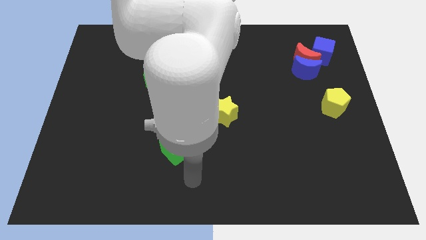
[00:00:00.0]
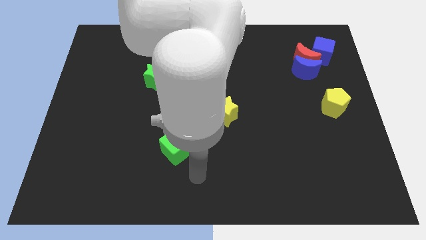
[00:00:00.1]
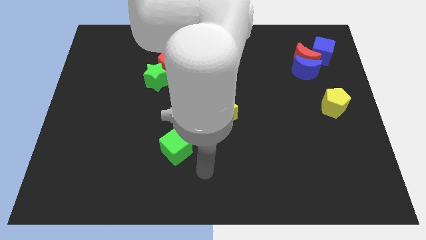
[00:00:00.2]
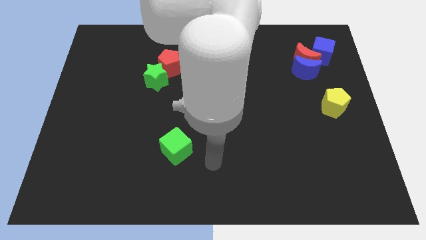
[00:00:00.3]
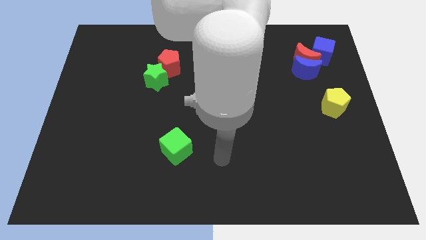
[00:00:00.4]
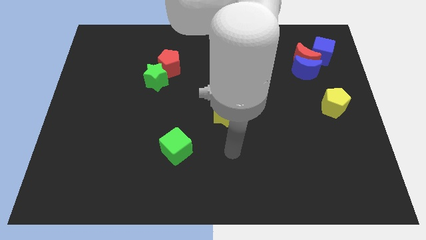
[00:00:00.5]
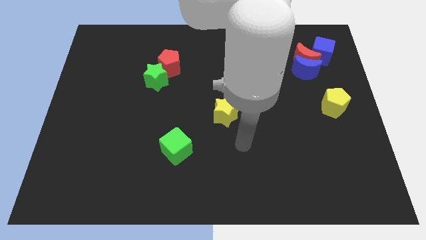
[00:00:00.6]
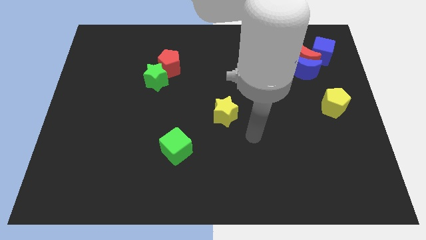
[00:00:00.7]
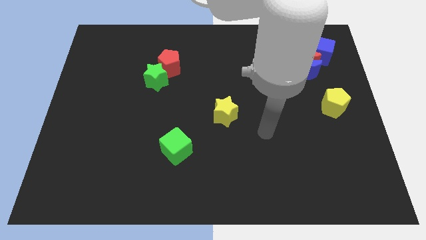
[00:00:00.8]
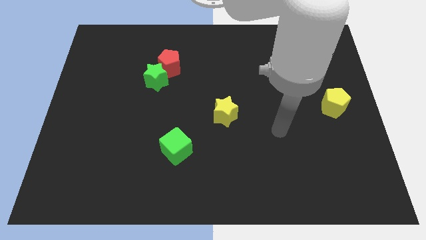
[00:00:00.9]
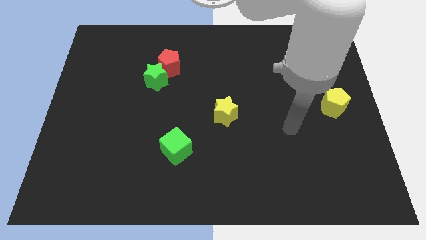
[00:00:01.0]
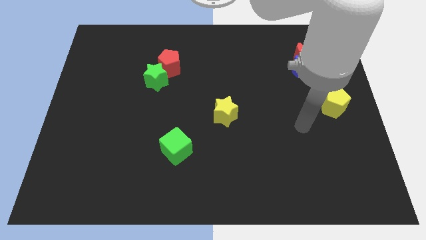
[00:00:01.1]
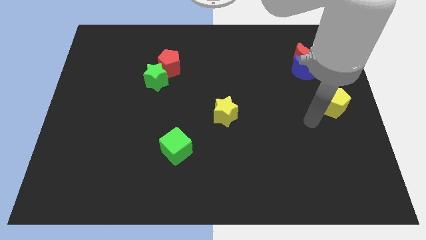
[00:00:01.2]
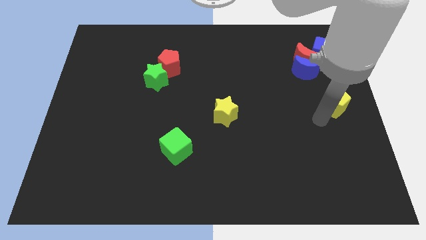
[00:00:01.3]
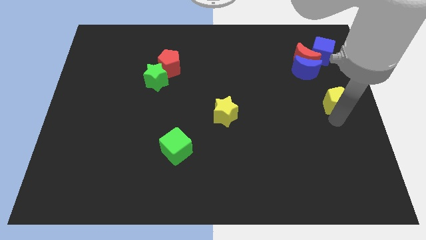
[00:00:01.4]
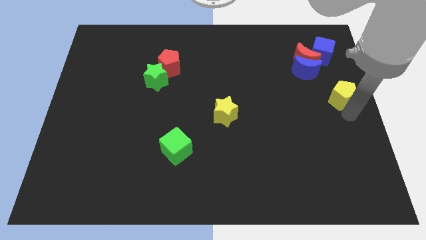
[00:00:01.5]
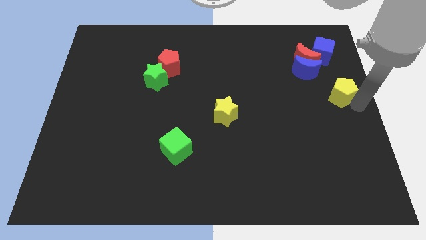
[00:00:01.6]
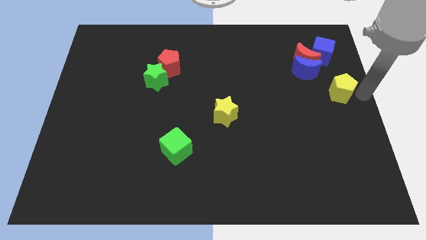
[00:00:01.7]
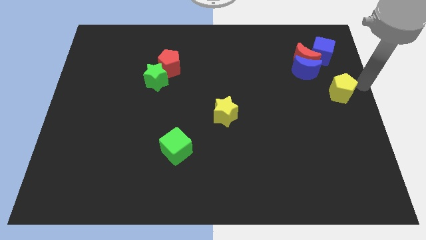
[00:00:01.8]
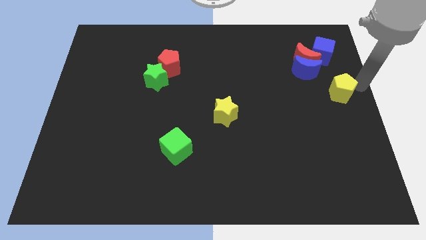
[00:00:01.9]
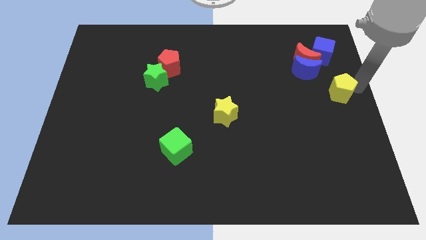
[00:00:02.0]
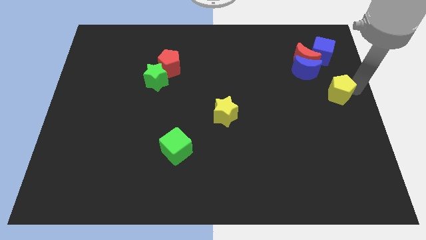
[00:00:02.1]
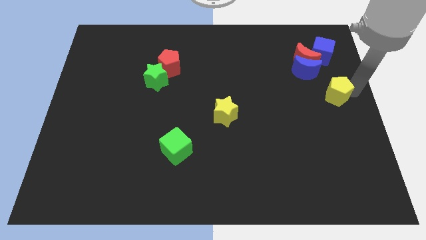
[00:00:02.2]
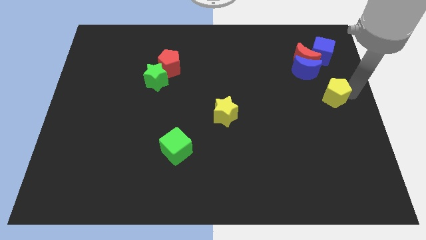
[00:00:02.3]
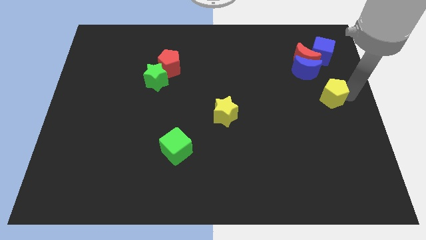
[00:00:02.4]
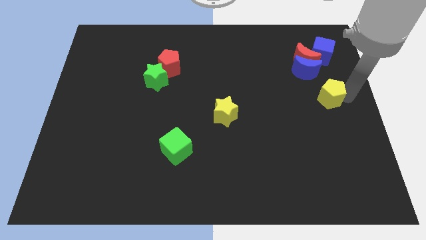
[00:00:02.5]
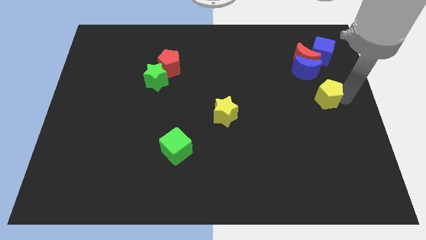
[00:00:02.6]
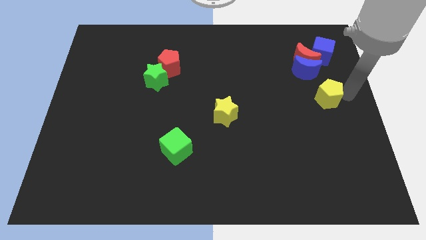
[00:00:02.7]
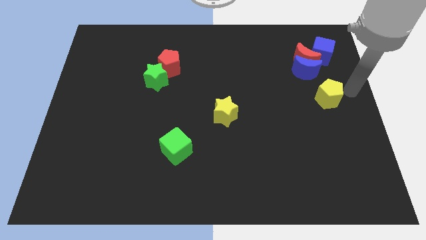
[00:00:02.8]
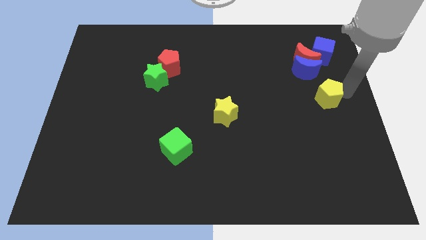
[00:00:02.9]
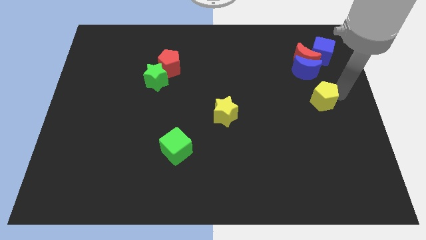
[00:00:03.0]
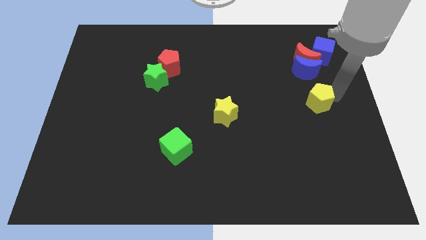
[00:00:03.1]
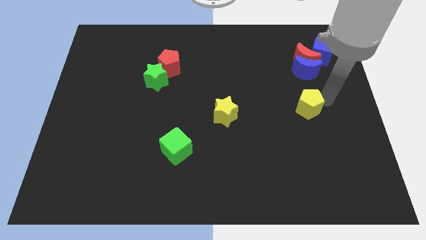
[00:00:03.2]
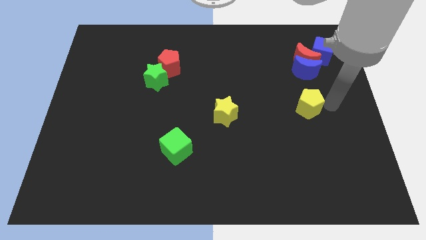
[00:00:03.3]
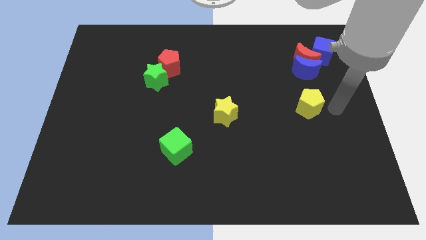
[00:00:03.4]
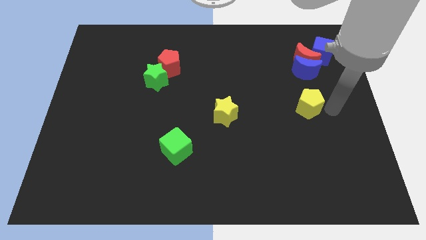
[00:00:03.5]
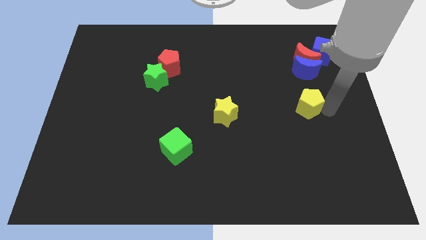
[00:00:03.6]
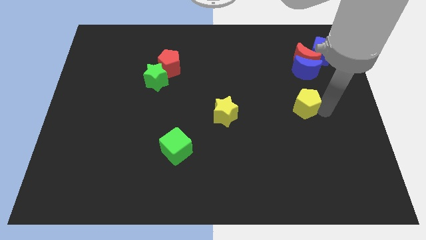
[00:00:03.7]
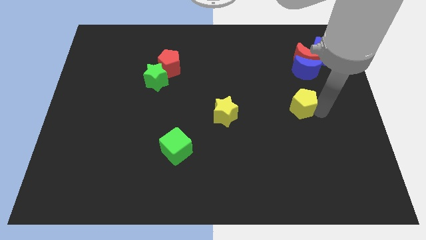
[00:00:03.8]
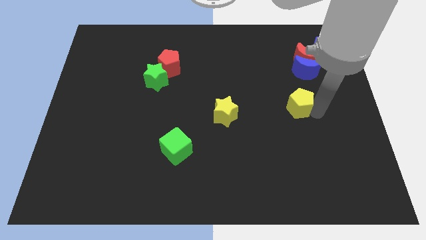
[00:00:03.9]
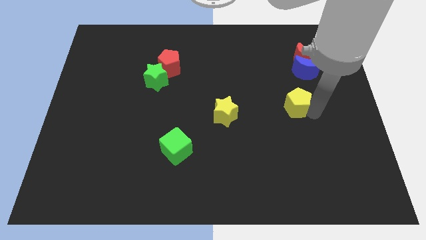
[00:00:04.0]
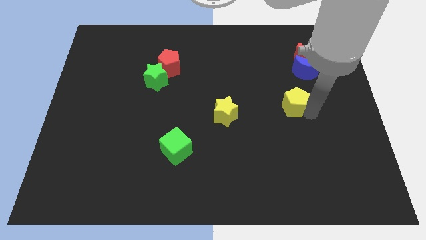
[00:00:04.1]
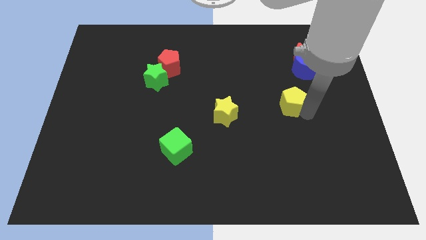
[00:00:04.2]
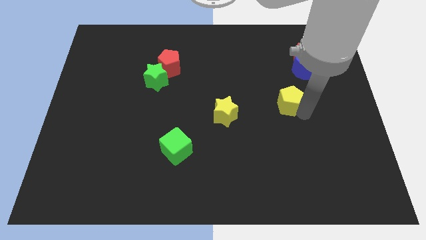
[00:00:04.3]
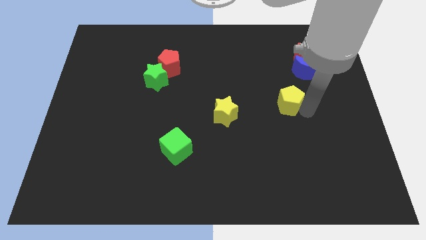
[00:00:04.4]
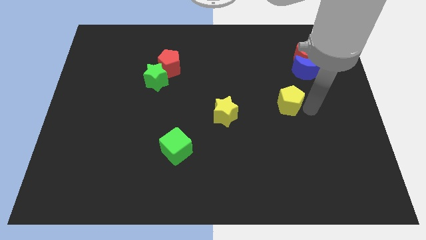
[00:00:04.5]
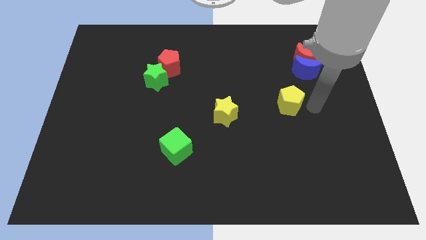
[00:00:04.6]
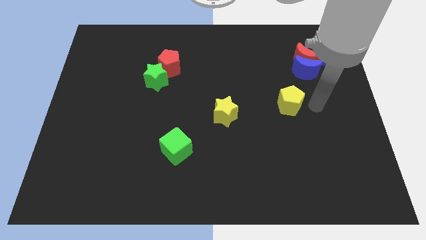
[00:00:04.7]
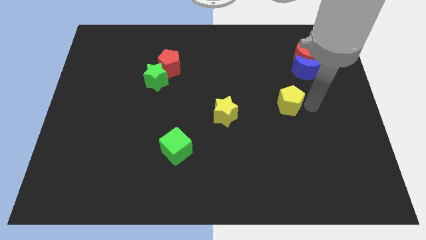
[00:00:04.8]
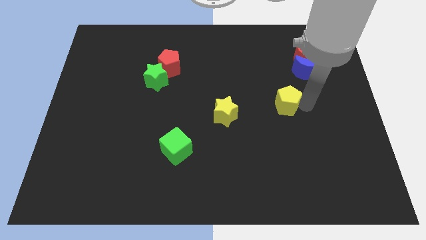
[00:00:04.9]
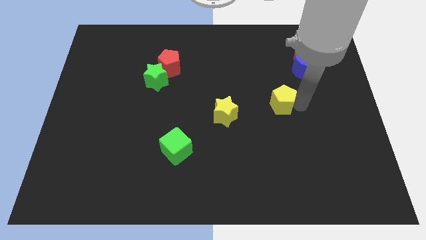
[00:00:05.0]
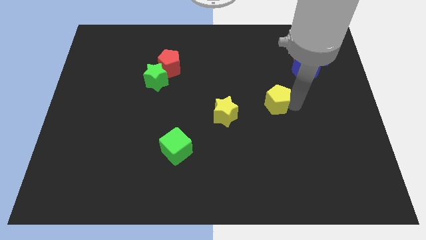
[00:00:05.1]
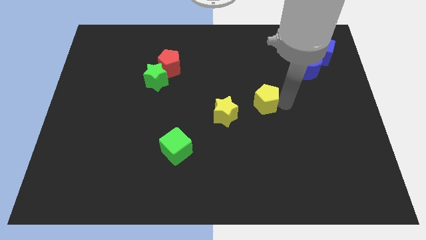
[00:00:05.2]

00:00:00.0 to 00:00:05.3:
move the yellow pentagon to the center
